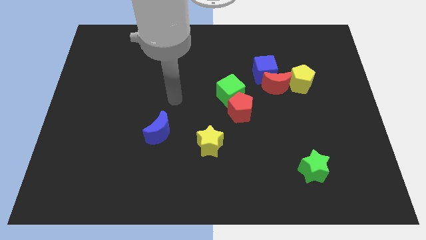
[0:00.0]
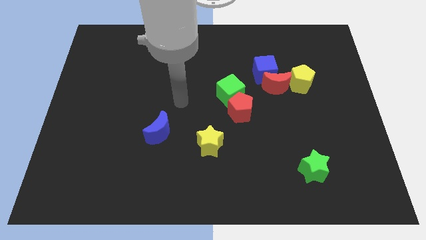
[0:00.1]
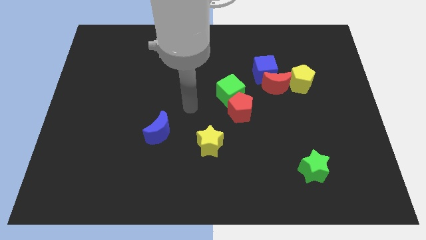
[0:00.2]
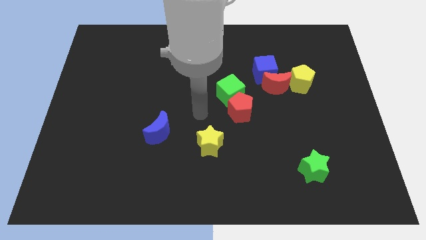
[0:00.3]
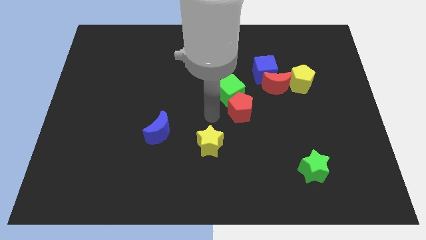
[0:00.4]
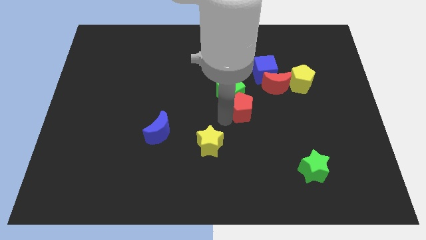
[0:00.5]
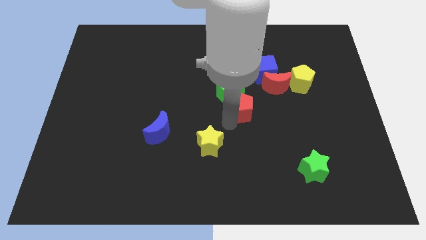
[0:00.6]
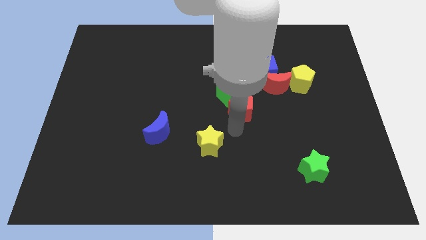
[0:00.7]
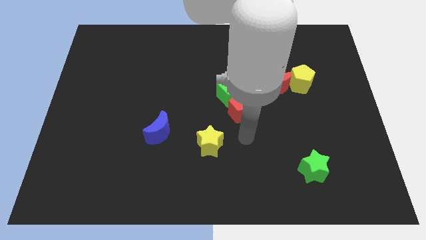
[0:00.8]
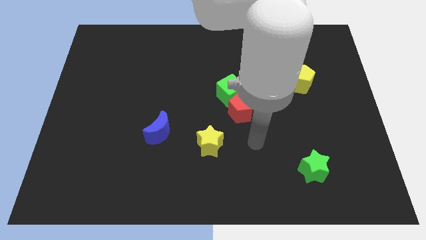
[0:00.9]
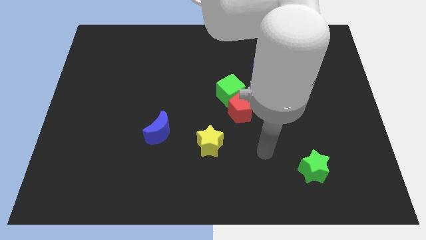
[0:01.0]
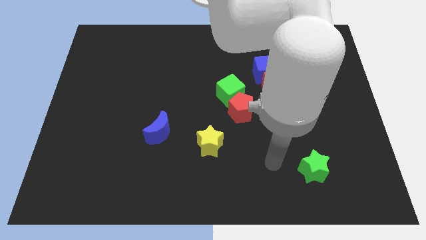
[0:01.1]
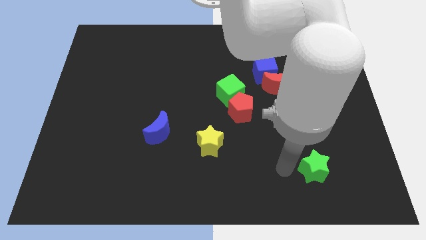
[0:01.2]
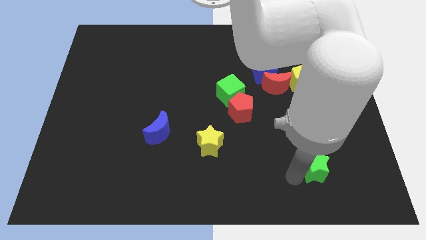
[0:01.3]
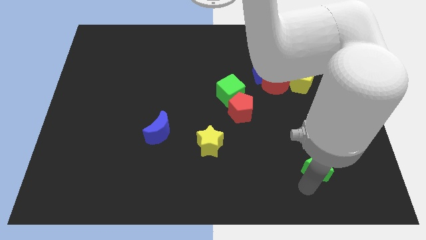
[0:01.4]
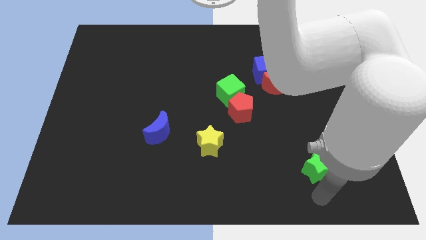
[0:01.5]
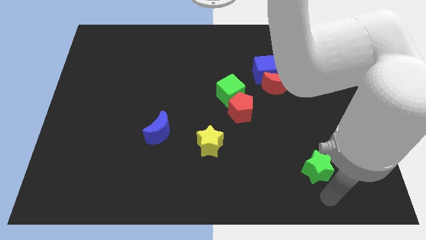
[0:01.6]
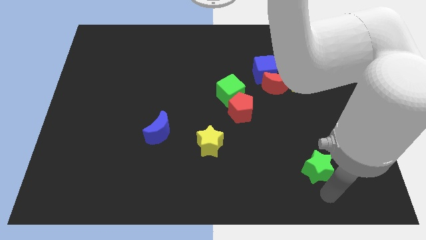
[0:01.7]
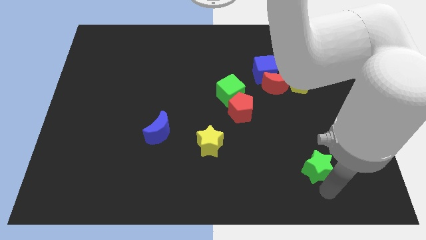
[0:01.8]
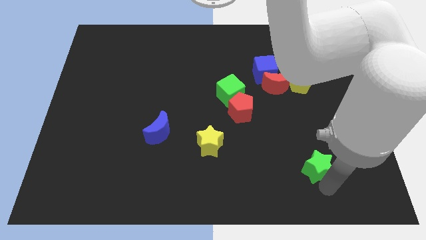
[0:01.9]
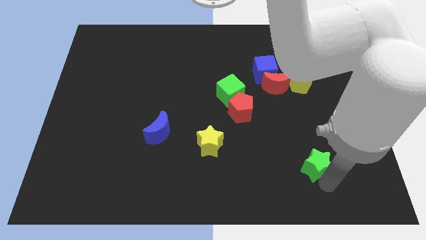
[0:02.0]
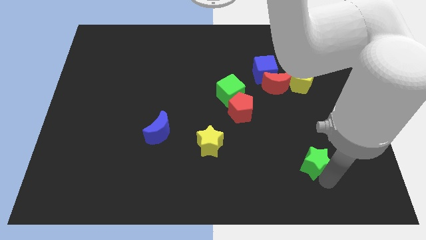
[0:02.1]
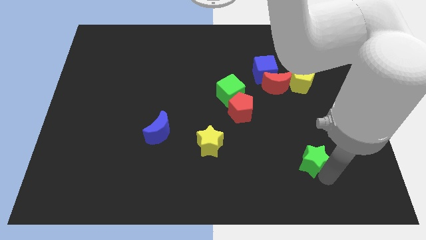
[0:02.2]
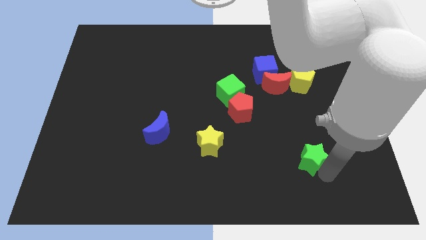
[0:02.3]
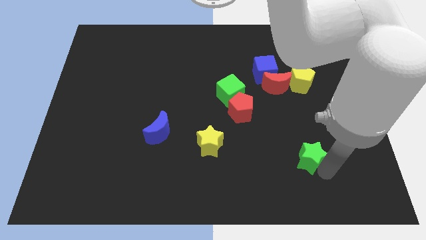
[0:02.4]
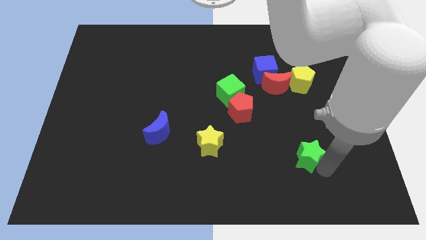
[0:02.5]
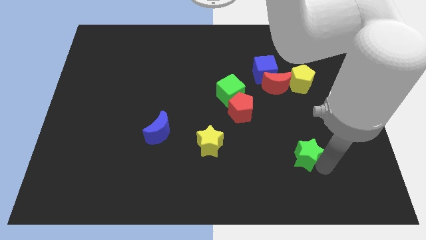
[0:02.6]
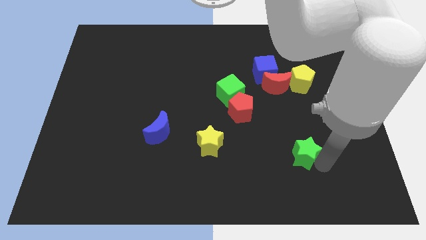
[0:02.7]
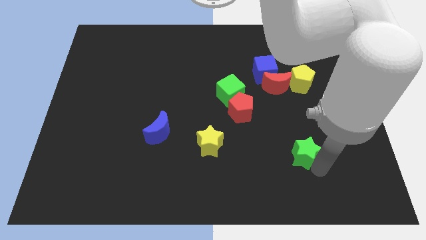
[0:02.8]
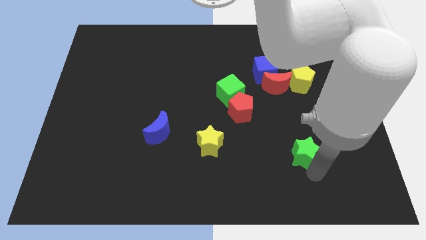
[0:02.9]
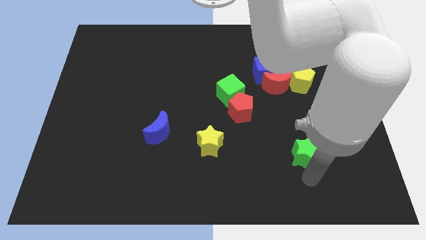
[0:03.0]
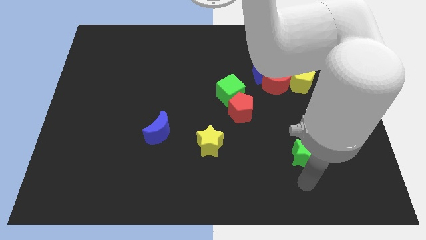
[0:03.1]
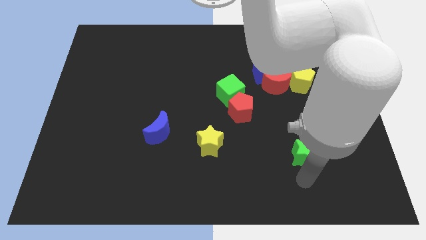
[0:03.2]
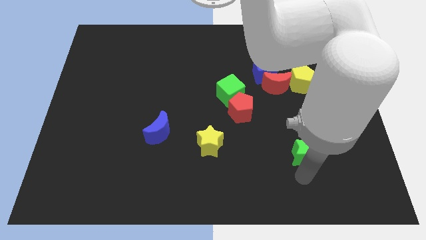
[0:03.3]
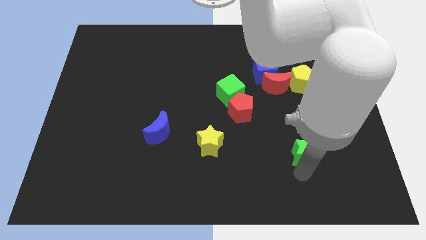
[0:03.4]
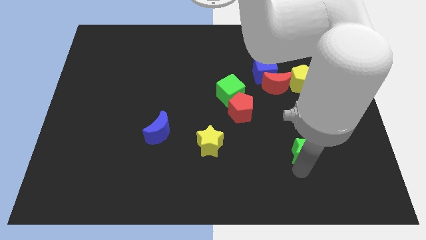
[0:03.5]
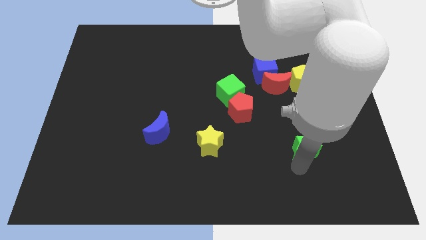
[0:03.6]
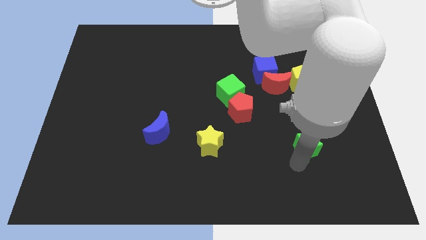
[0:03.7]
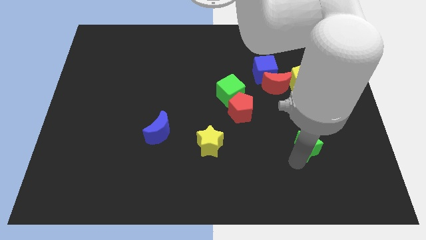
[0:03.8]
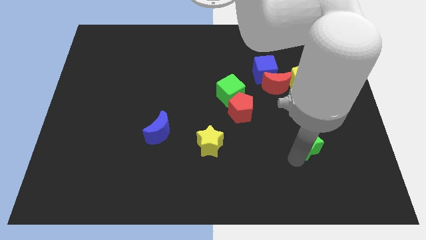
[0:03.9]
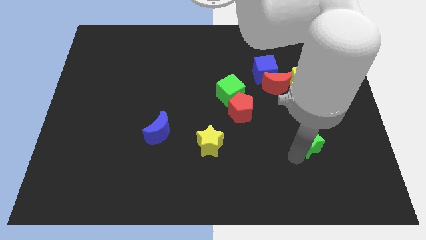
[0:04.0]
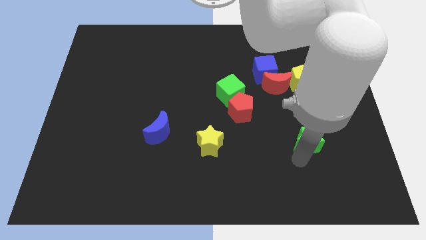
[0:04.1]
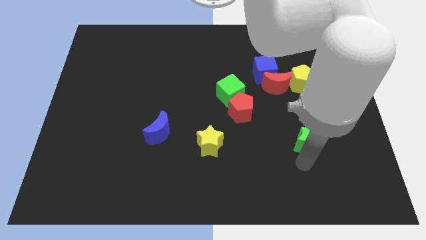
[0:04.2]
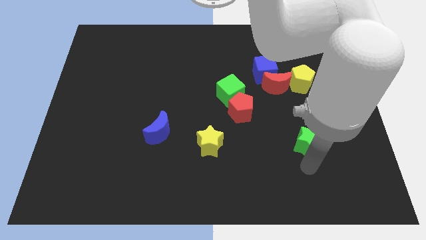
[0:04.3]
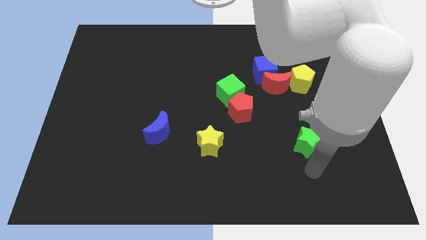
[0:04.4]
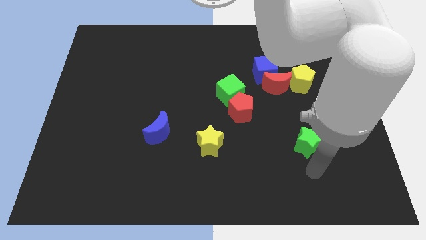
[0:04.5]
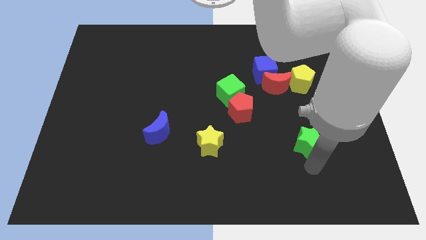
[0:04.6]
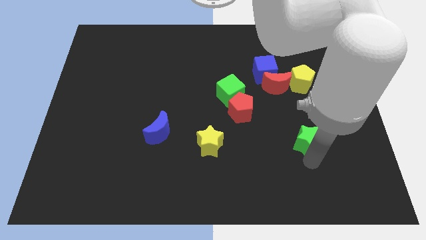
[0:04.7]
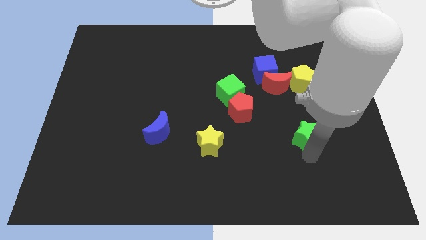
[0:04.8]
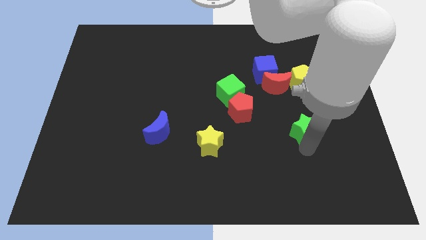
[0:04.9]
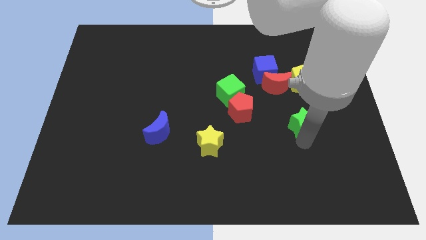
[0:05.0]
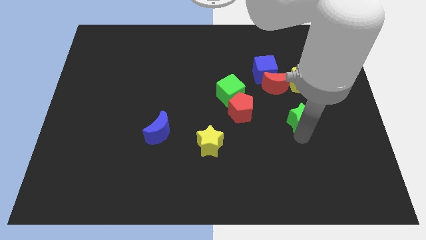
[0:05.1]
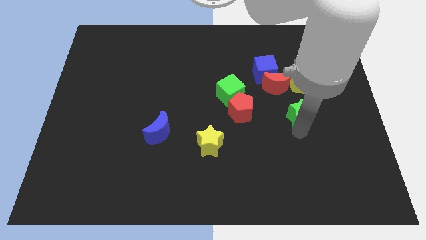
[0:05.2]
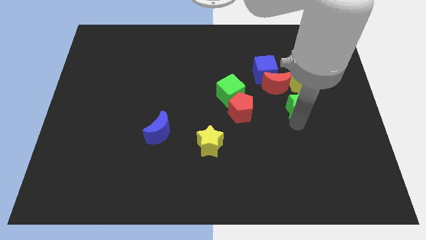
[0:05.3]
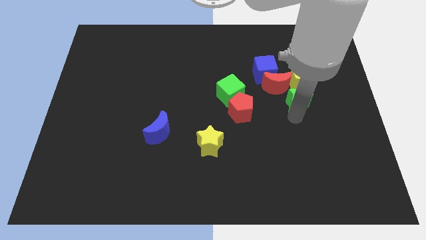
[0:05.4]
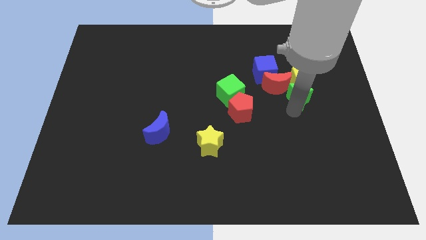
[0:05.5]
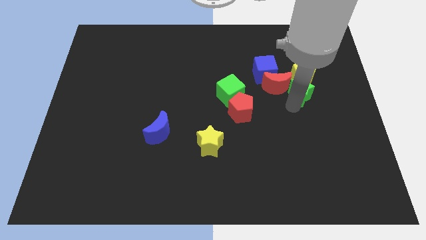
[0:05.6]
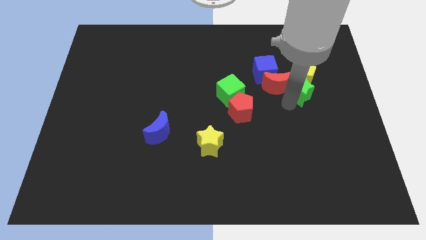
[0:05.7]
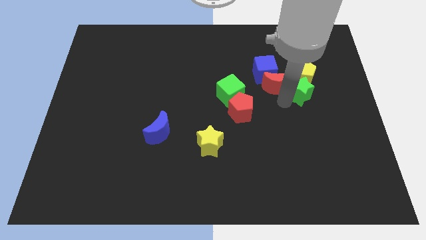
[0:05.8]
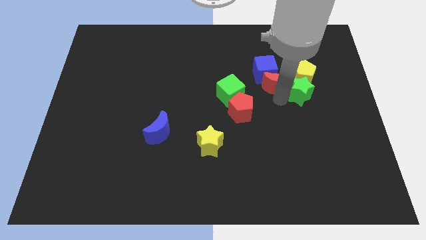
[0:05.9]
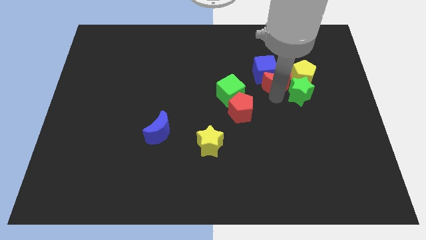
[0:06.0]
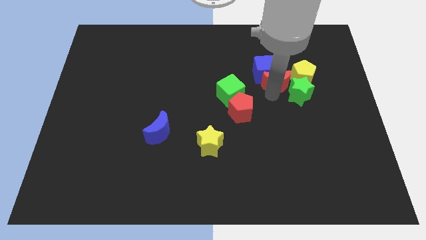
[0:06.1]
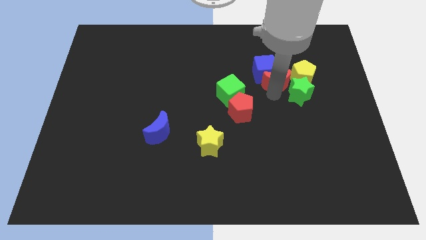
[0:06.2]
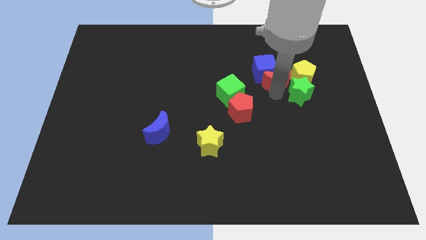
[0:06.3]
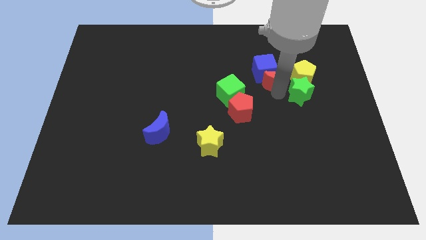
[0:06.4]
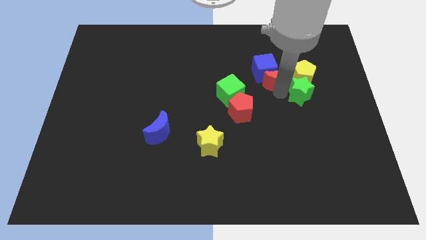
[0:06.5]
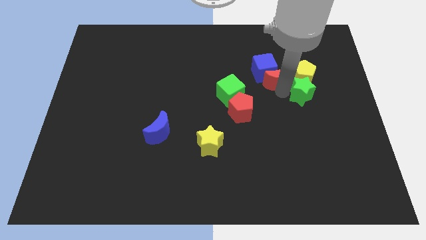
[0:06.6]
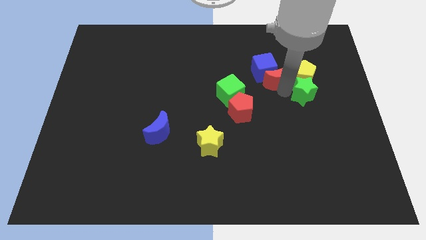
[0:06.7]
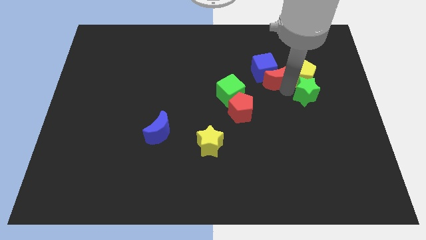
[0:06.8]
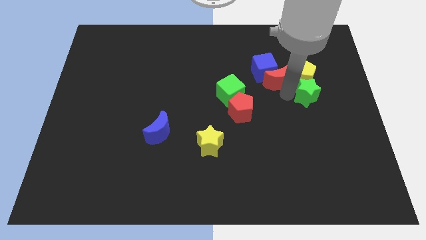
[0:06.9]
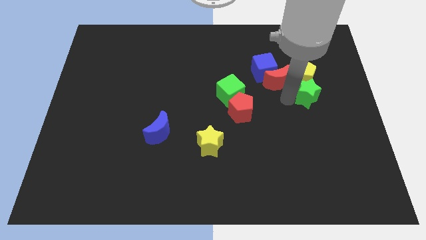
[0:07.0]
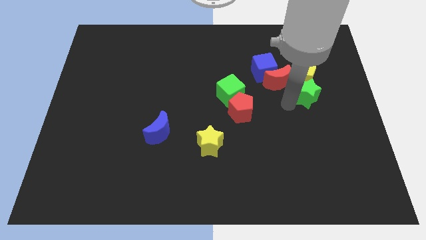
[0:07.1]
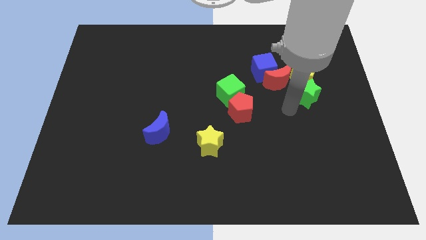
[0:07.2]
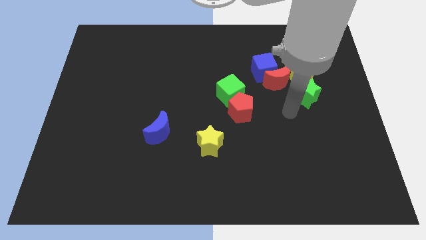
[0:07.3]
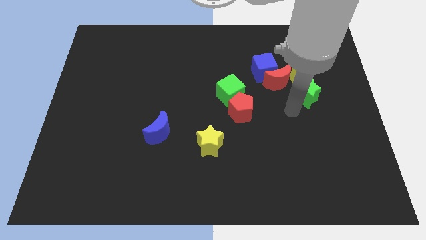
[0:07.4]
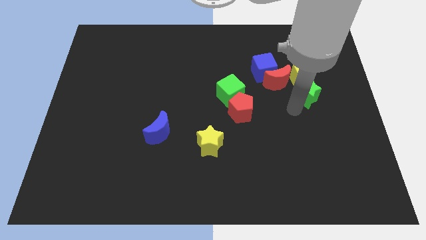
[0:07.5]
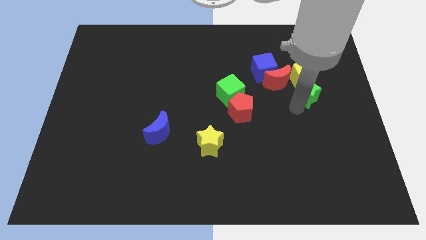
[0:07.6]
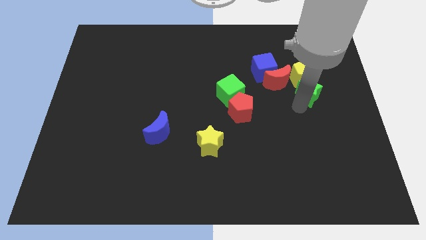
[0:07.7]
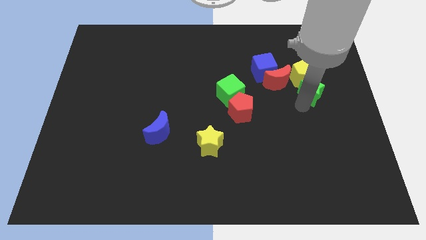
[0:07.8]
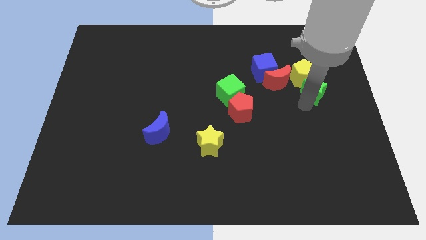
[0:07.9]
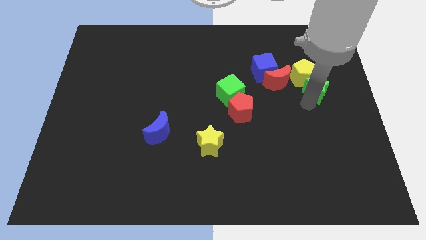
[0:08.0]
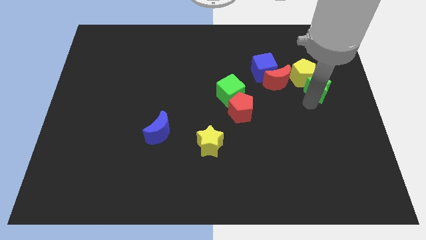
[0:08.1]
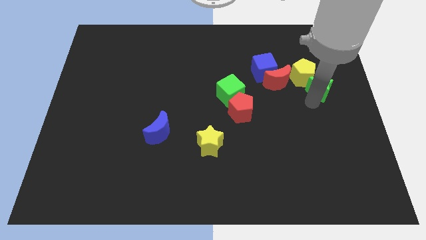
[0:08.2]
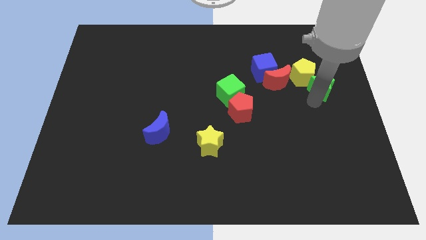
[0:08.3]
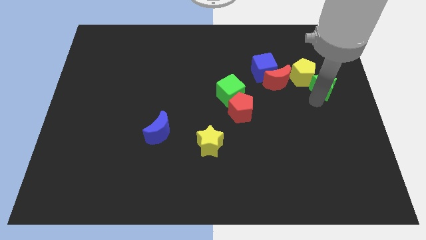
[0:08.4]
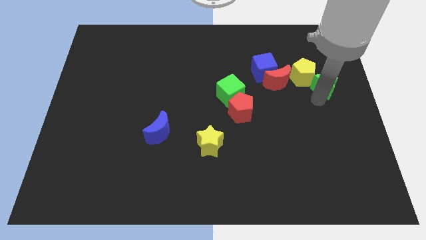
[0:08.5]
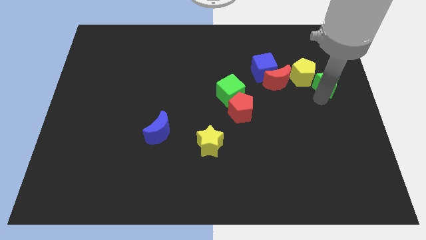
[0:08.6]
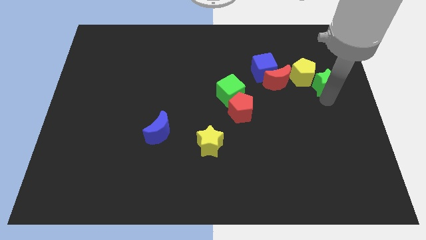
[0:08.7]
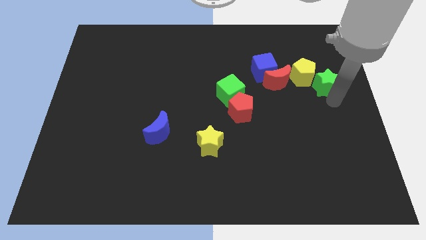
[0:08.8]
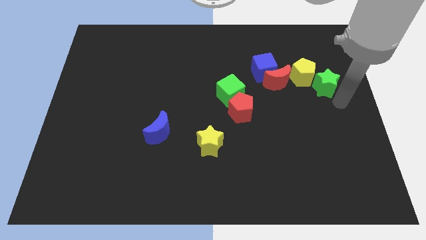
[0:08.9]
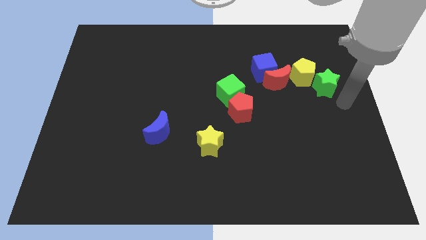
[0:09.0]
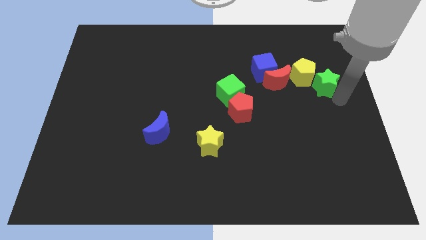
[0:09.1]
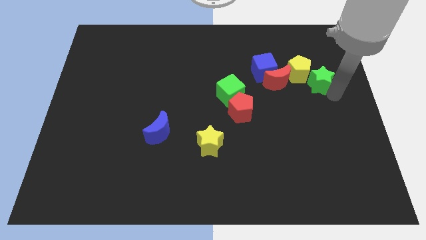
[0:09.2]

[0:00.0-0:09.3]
push the green star to the right side of the blue cube
